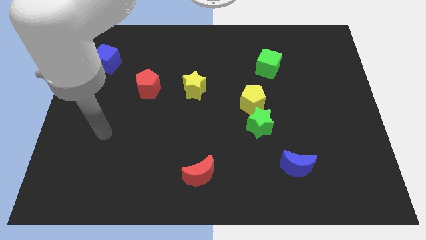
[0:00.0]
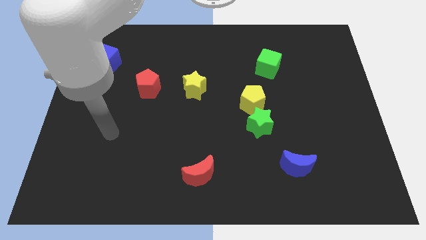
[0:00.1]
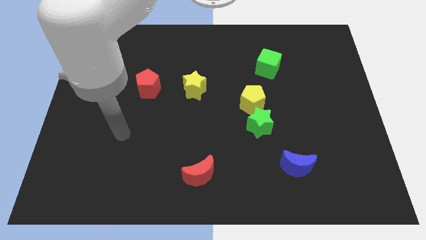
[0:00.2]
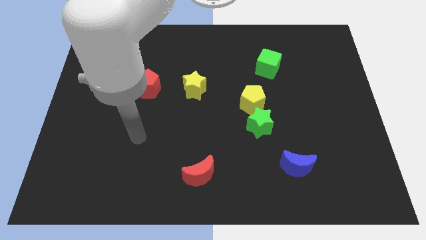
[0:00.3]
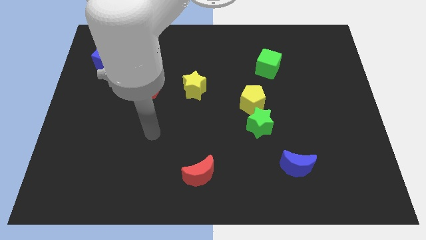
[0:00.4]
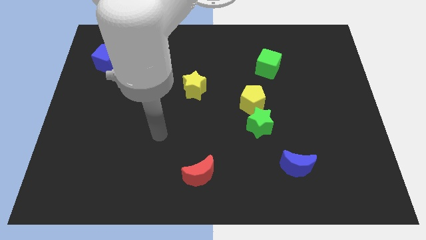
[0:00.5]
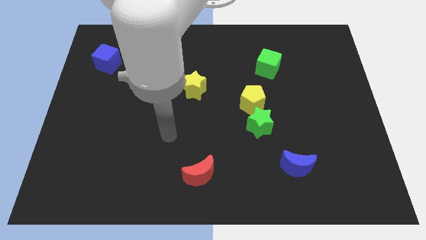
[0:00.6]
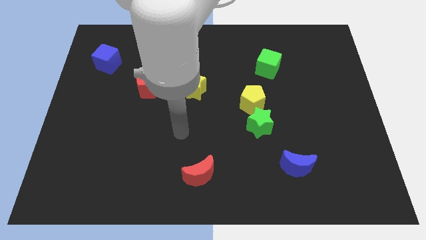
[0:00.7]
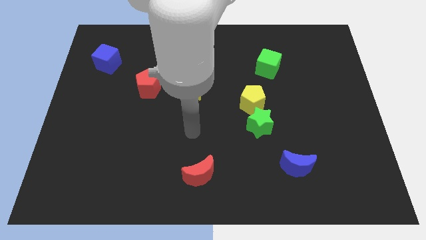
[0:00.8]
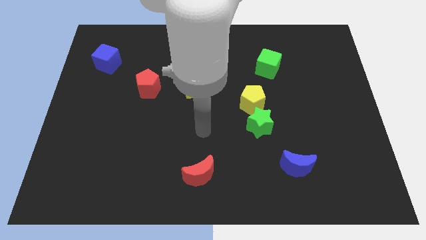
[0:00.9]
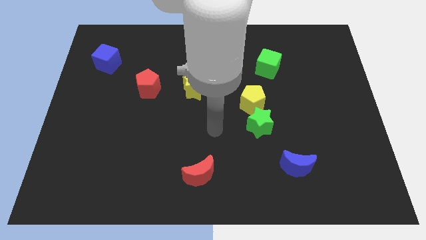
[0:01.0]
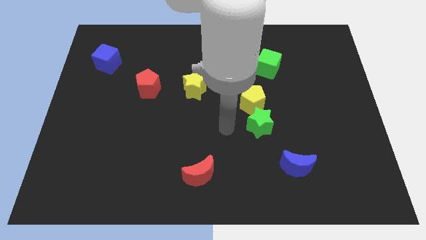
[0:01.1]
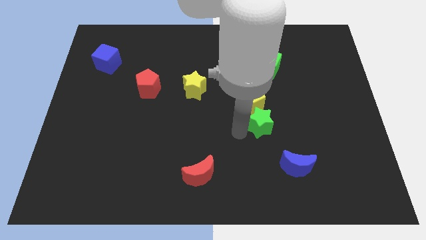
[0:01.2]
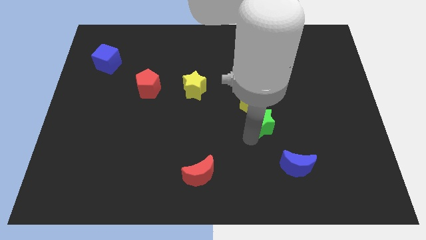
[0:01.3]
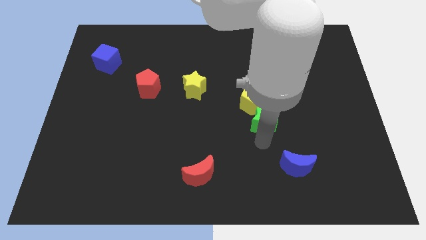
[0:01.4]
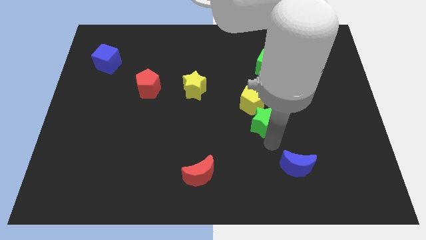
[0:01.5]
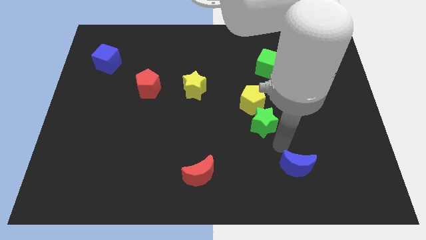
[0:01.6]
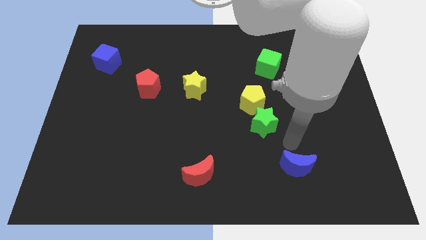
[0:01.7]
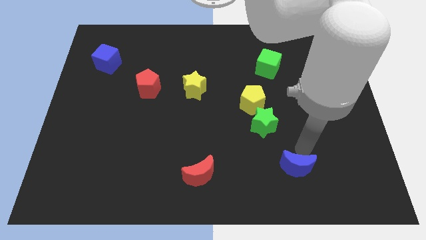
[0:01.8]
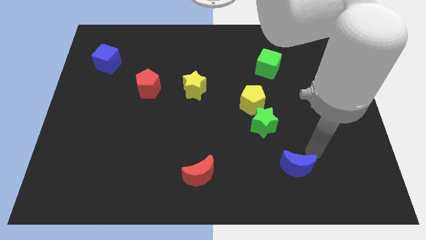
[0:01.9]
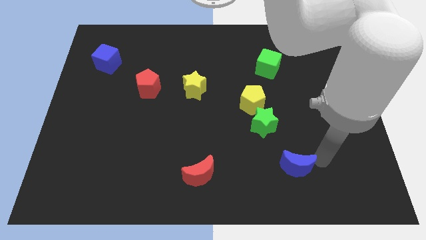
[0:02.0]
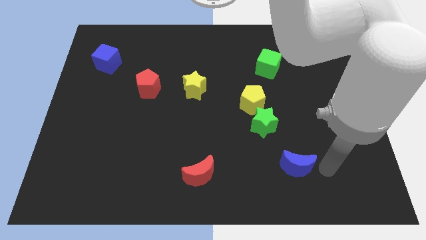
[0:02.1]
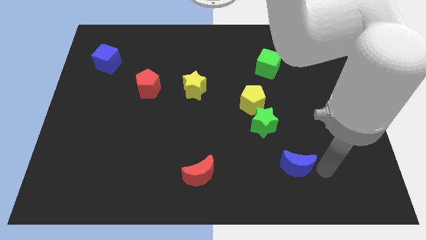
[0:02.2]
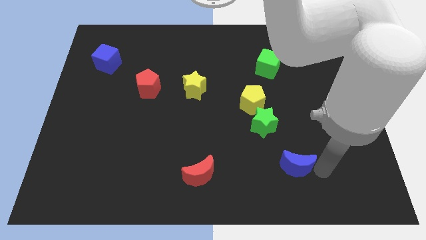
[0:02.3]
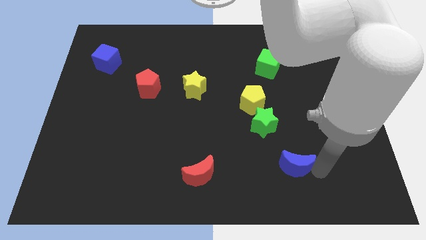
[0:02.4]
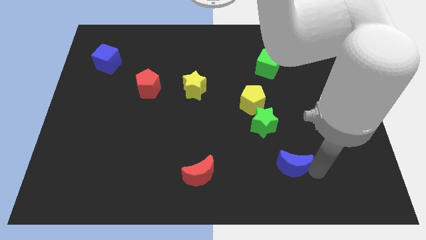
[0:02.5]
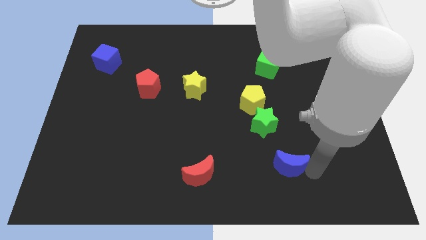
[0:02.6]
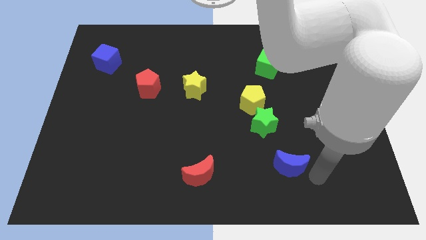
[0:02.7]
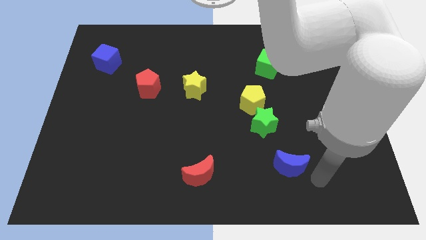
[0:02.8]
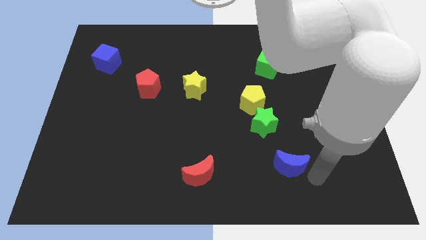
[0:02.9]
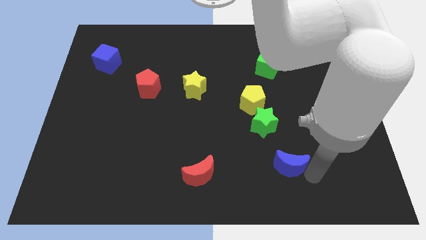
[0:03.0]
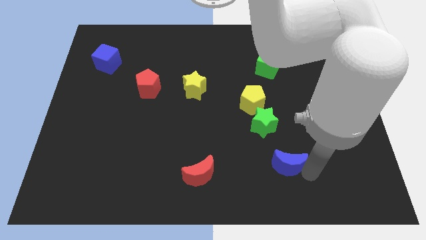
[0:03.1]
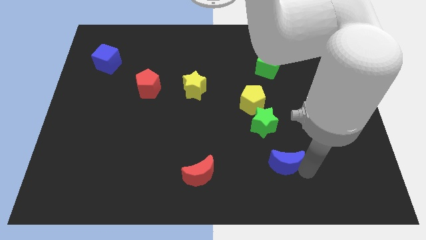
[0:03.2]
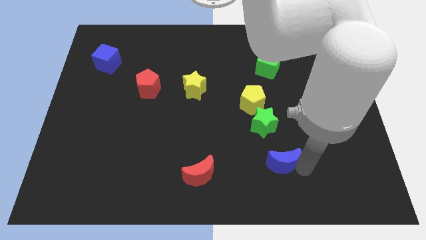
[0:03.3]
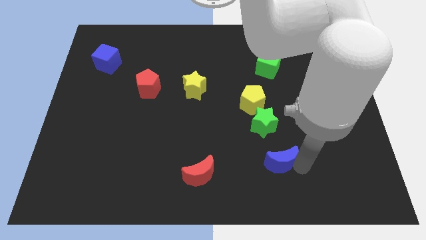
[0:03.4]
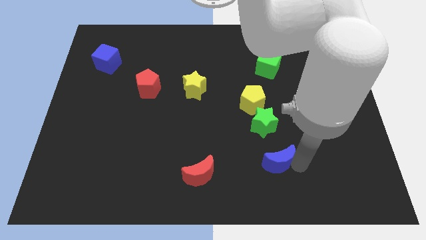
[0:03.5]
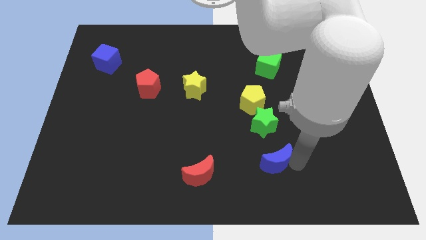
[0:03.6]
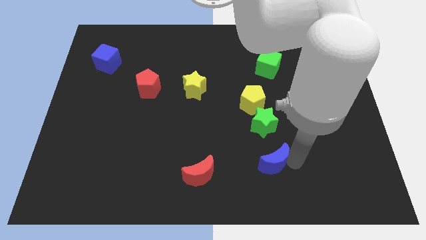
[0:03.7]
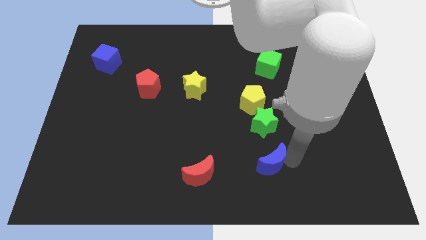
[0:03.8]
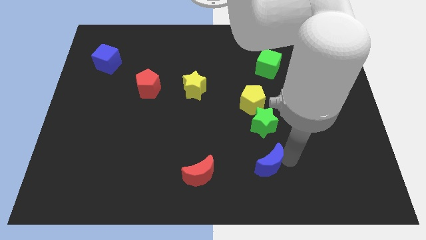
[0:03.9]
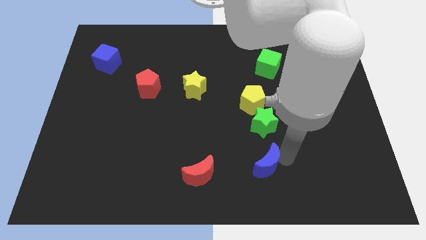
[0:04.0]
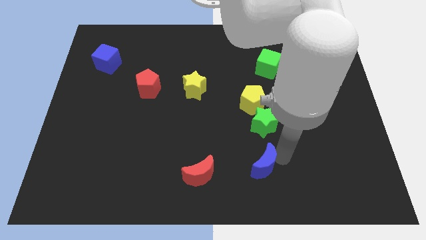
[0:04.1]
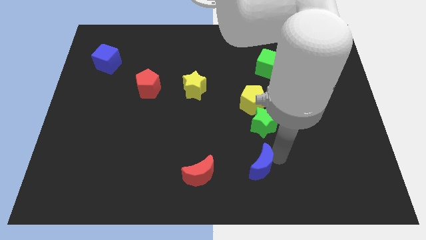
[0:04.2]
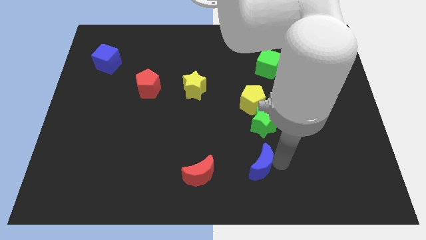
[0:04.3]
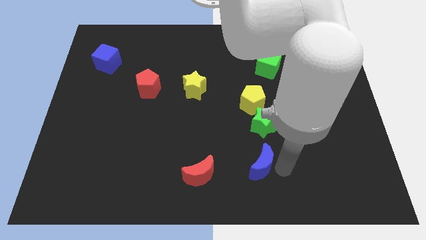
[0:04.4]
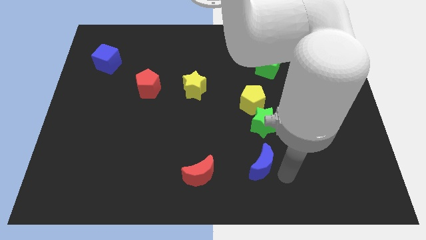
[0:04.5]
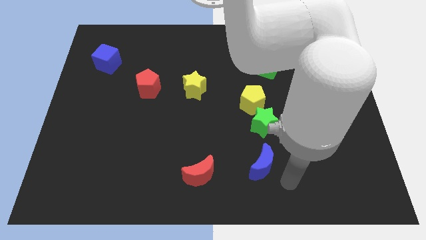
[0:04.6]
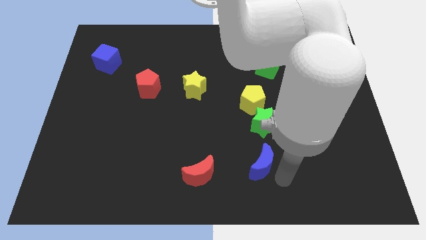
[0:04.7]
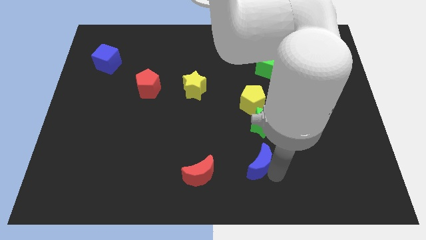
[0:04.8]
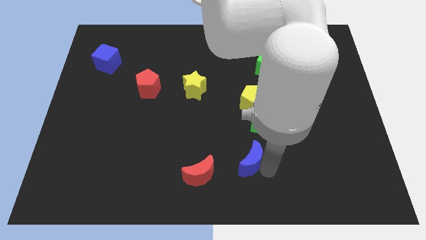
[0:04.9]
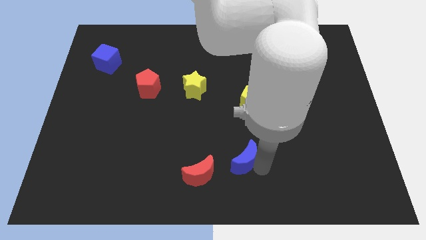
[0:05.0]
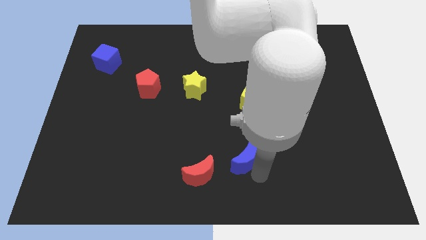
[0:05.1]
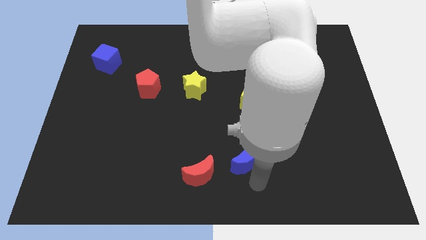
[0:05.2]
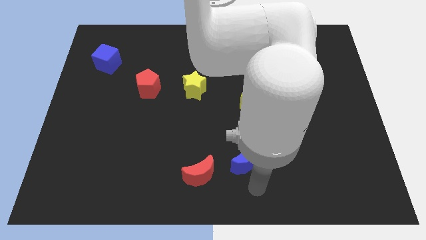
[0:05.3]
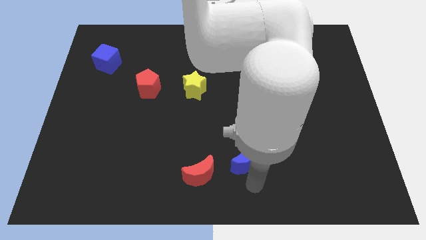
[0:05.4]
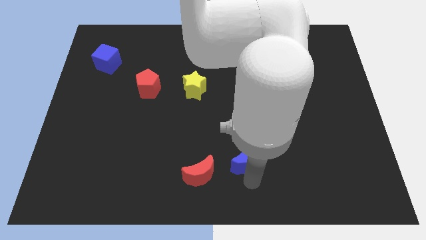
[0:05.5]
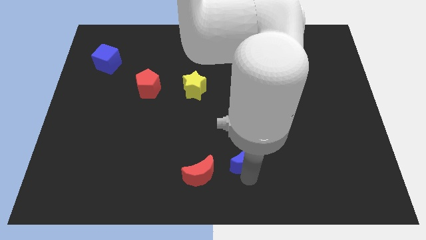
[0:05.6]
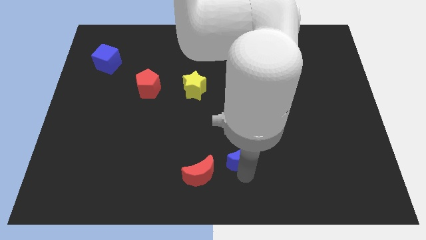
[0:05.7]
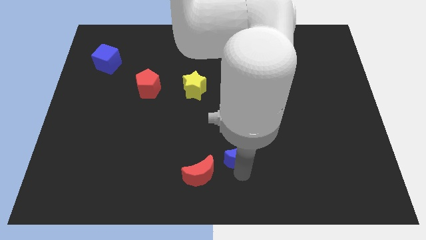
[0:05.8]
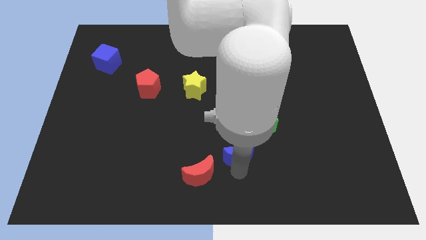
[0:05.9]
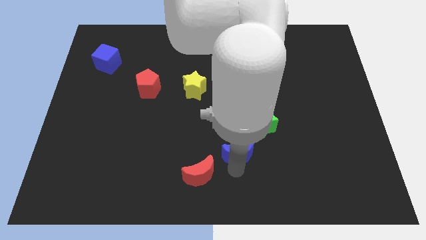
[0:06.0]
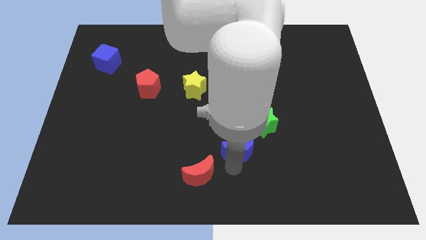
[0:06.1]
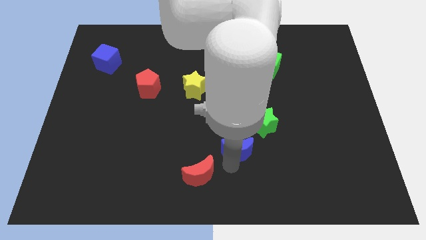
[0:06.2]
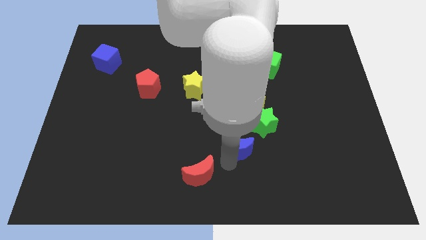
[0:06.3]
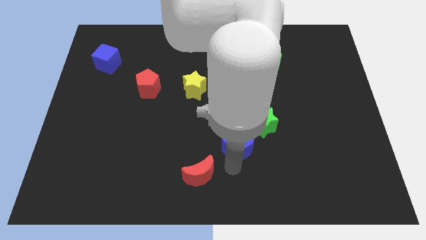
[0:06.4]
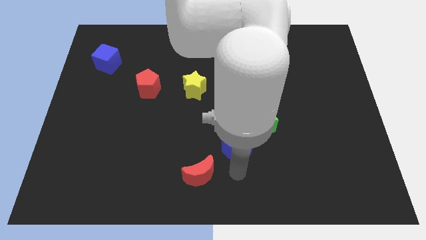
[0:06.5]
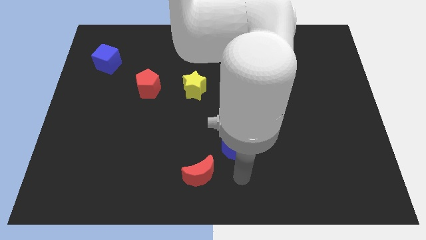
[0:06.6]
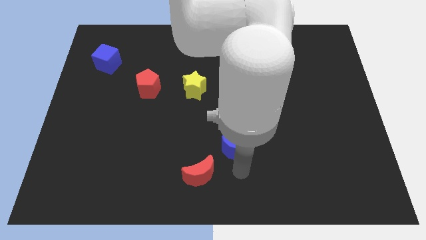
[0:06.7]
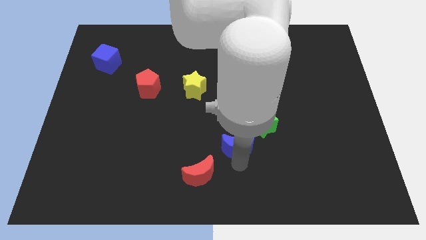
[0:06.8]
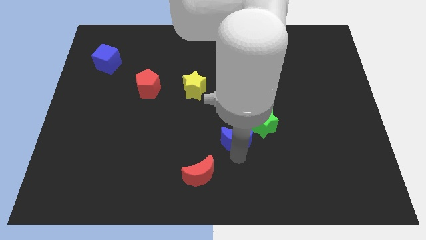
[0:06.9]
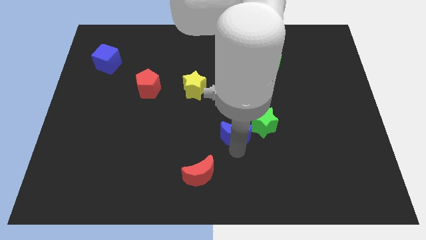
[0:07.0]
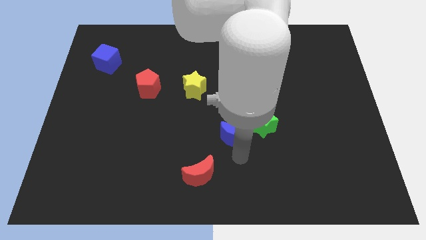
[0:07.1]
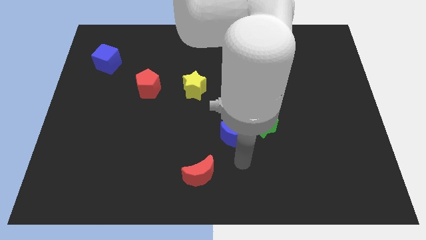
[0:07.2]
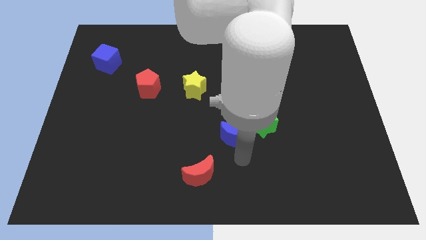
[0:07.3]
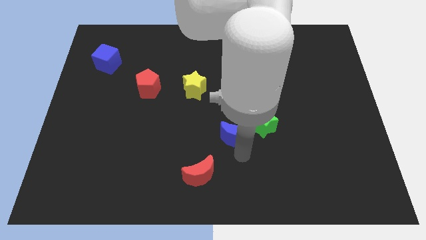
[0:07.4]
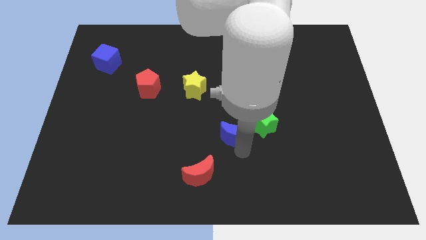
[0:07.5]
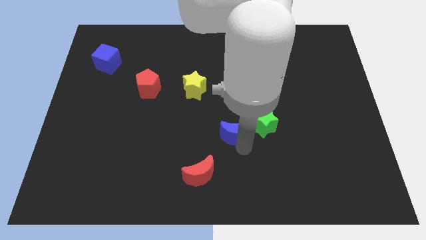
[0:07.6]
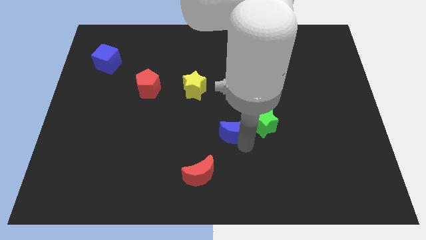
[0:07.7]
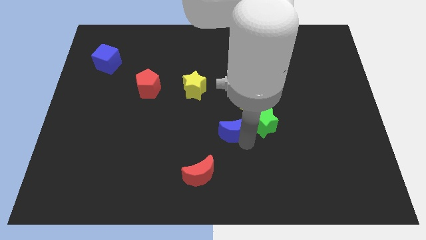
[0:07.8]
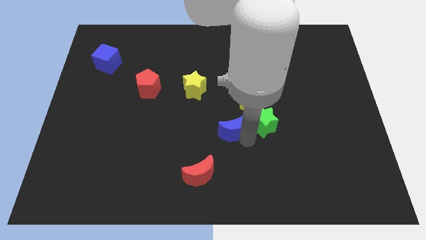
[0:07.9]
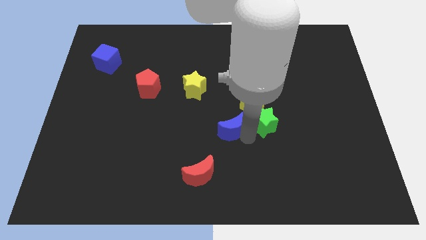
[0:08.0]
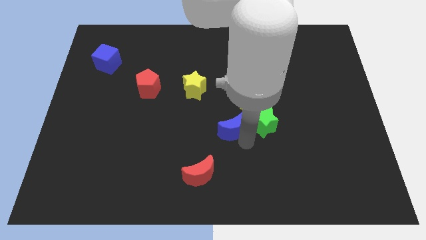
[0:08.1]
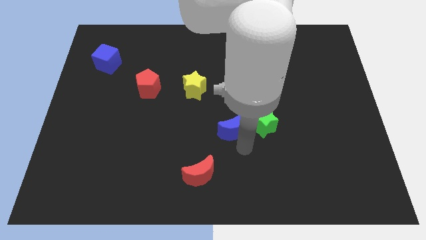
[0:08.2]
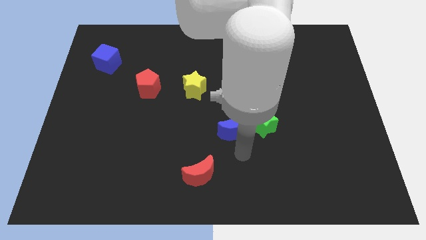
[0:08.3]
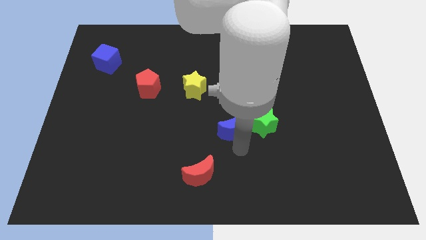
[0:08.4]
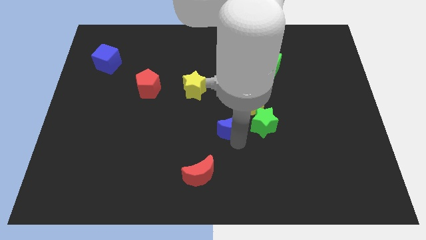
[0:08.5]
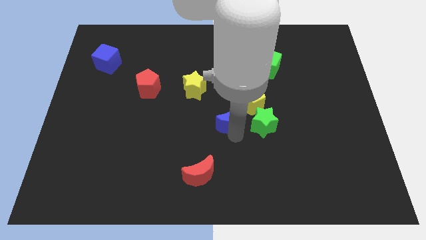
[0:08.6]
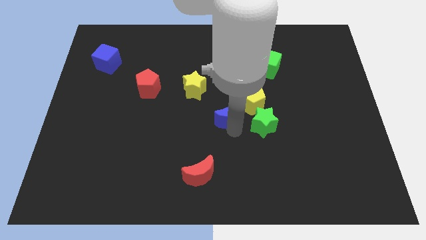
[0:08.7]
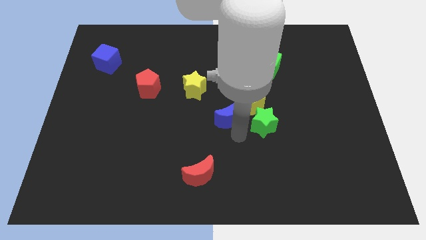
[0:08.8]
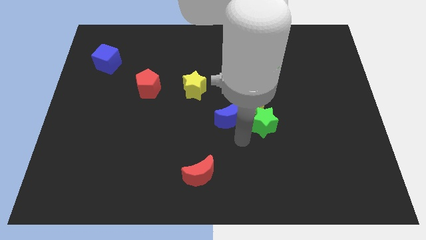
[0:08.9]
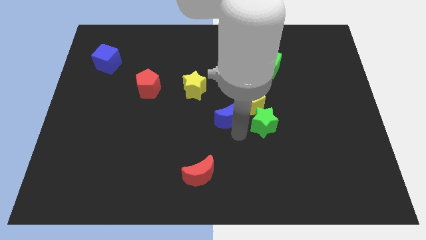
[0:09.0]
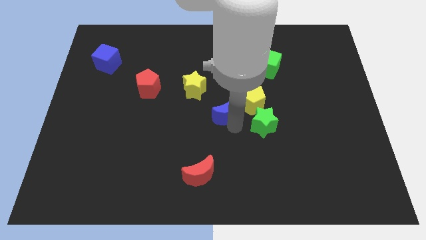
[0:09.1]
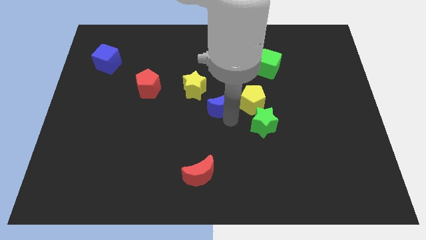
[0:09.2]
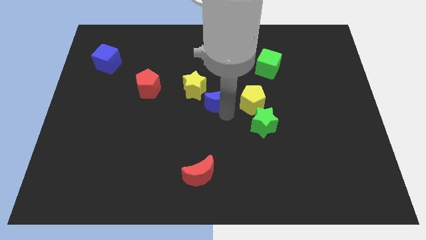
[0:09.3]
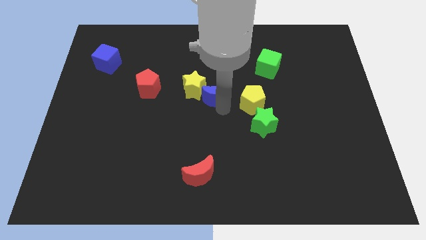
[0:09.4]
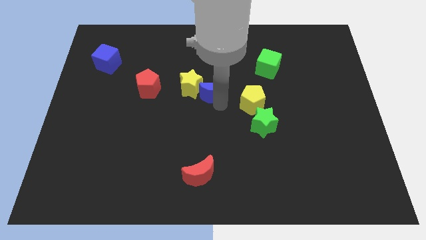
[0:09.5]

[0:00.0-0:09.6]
put the blue moon just right of the red pentagon
